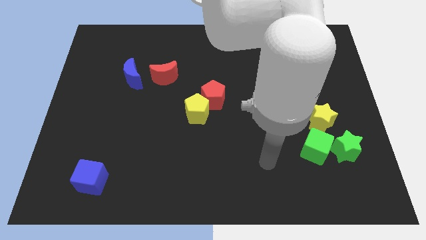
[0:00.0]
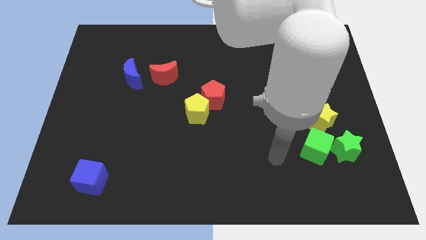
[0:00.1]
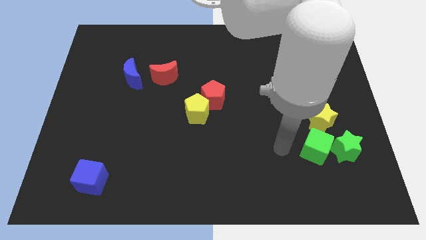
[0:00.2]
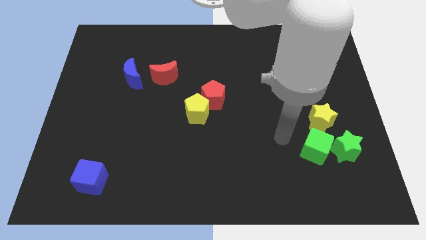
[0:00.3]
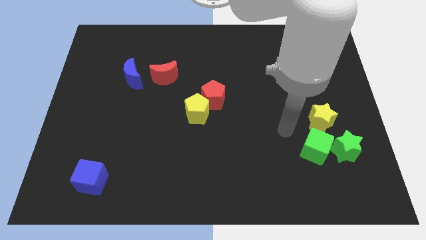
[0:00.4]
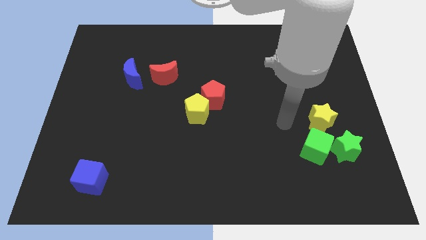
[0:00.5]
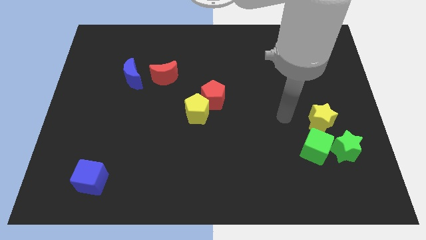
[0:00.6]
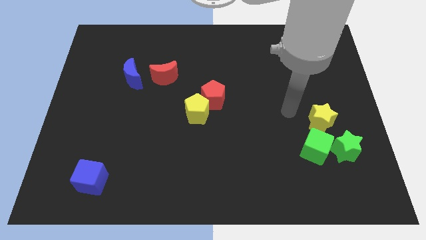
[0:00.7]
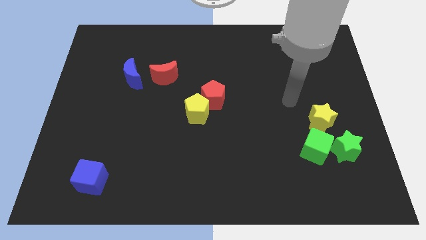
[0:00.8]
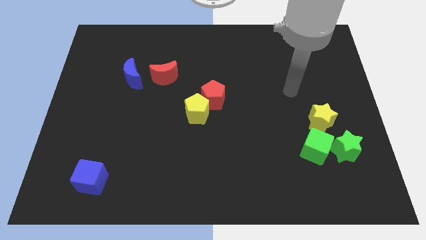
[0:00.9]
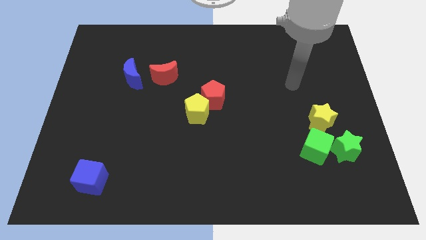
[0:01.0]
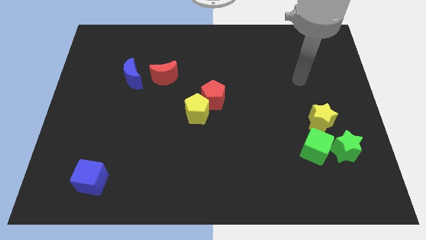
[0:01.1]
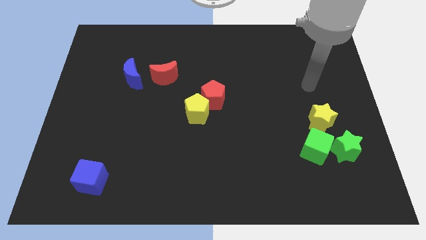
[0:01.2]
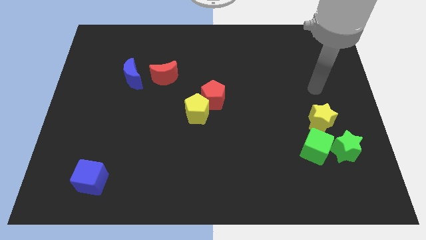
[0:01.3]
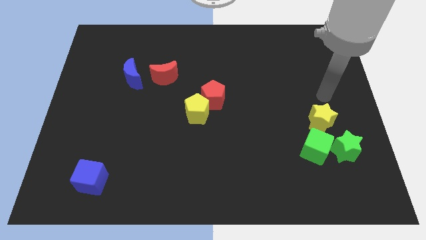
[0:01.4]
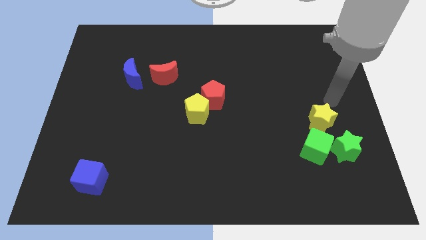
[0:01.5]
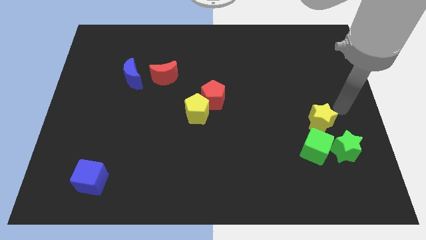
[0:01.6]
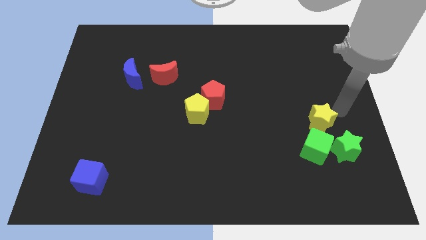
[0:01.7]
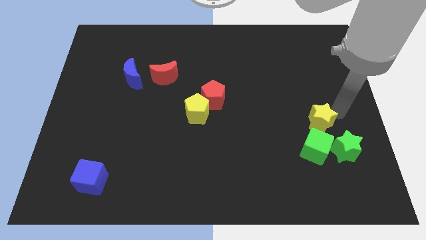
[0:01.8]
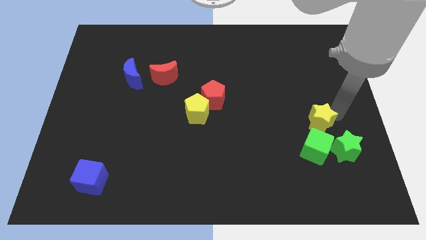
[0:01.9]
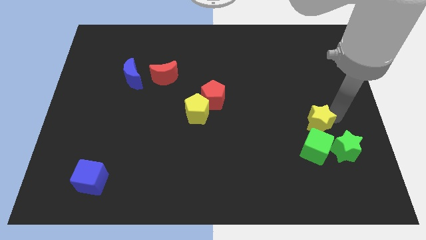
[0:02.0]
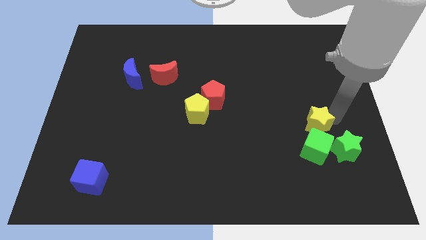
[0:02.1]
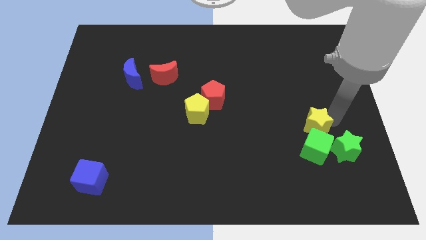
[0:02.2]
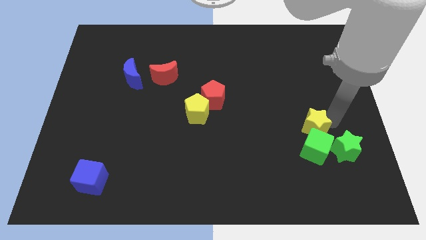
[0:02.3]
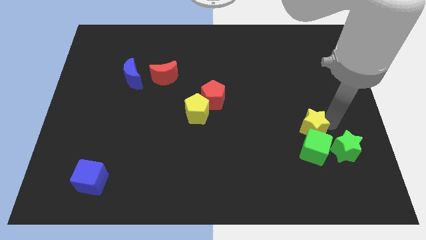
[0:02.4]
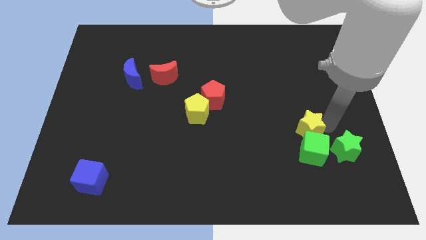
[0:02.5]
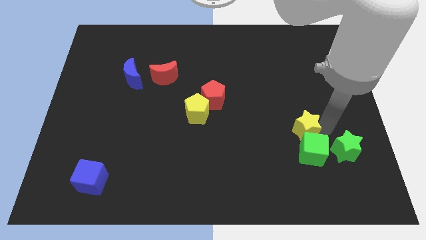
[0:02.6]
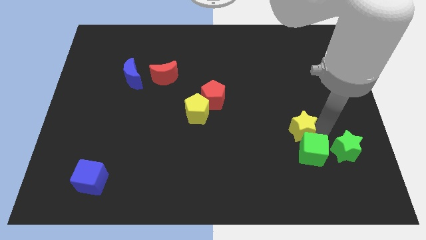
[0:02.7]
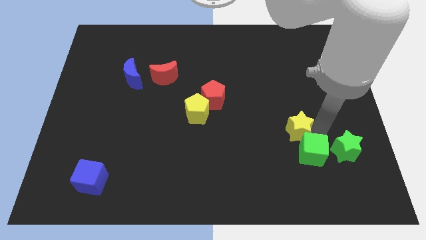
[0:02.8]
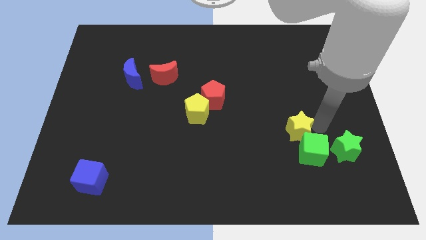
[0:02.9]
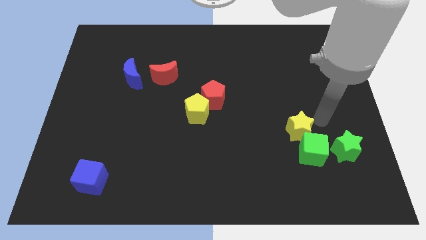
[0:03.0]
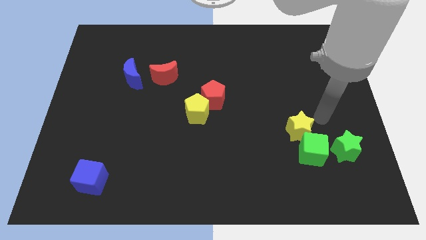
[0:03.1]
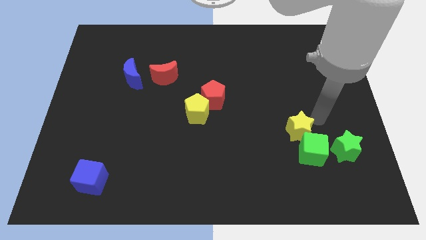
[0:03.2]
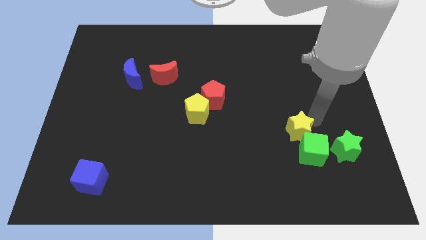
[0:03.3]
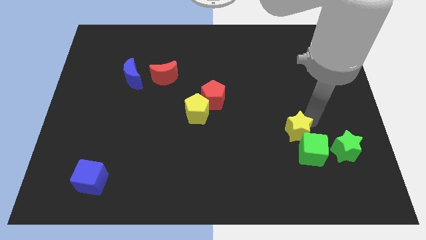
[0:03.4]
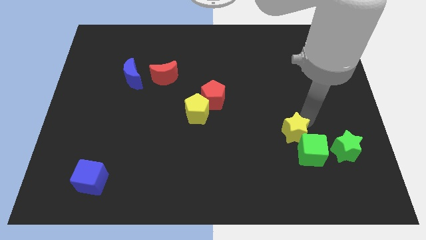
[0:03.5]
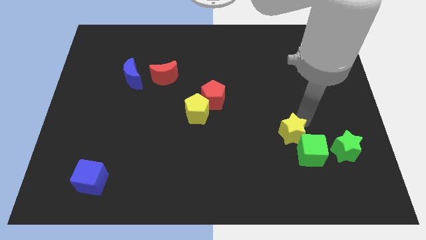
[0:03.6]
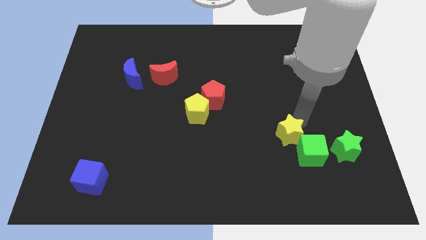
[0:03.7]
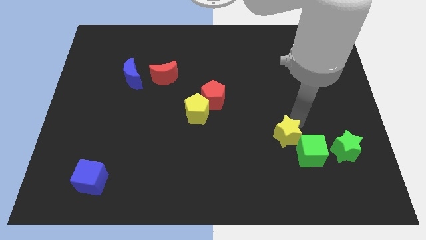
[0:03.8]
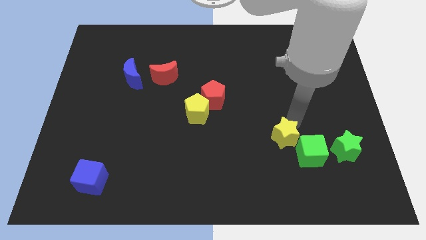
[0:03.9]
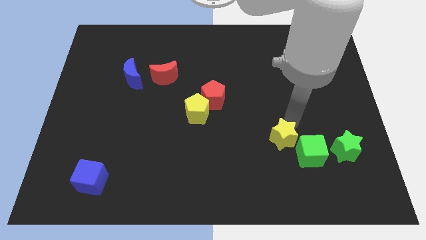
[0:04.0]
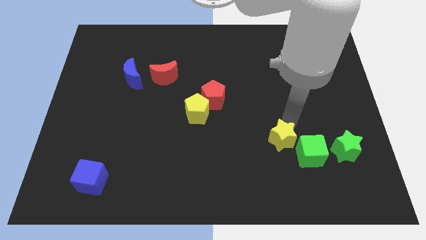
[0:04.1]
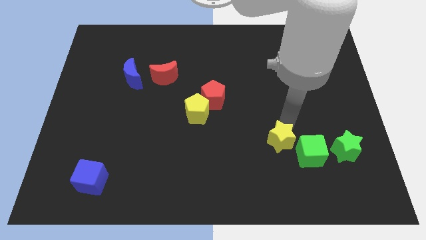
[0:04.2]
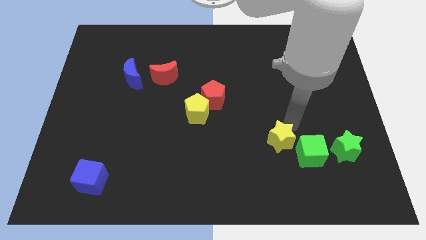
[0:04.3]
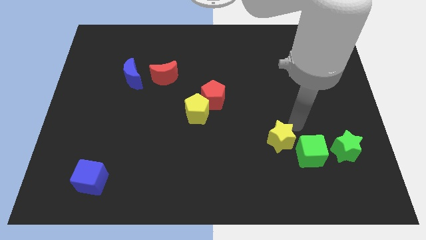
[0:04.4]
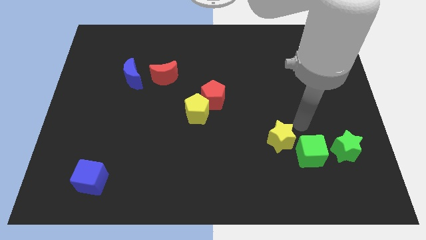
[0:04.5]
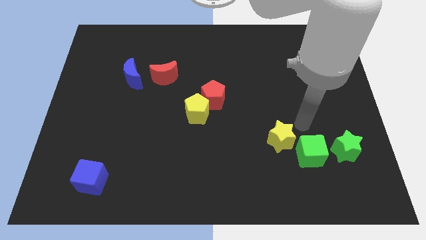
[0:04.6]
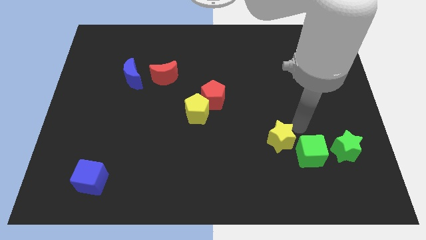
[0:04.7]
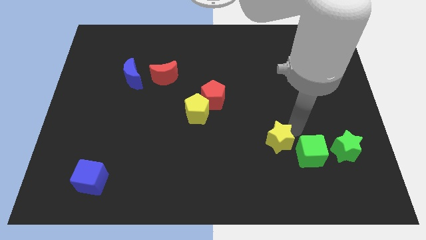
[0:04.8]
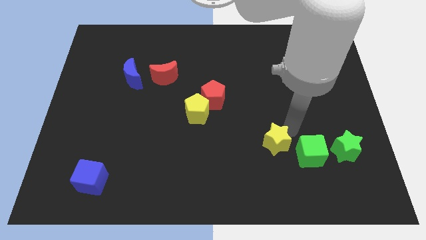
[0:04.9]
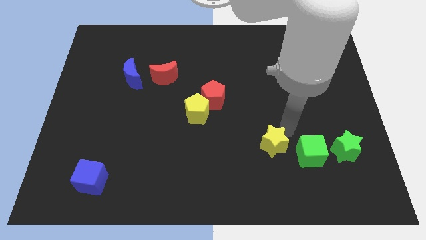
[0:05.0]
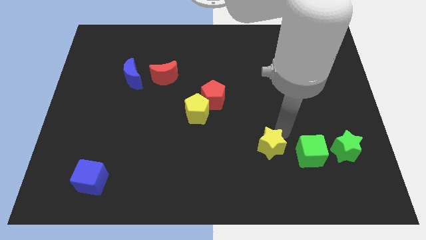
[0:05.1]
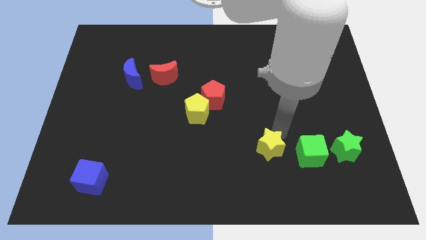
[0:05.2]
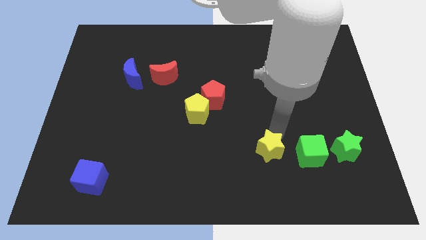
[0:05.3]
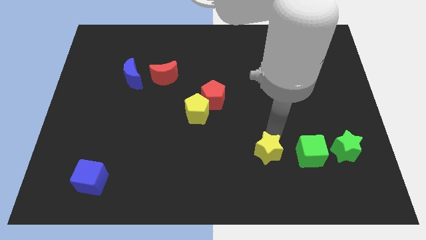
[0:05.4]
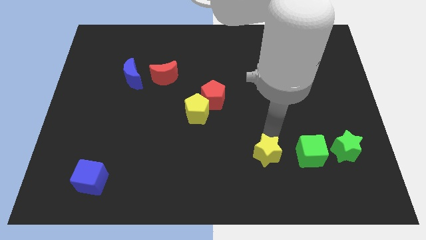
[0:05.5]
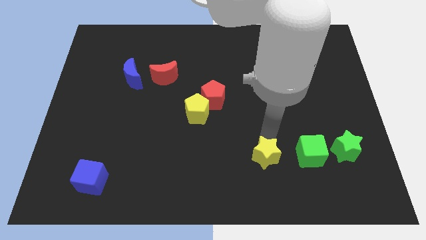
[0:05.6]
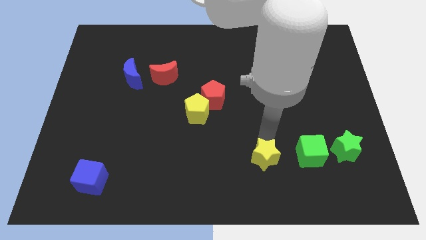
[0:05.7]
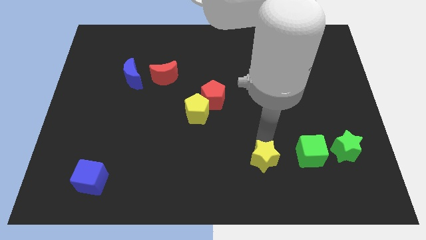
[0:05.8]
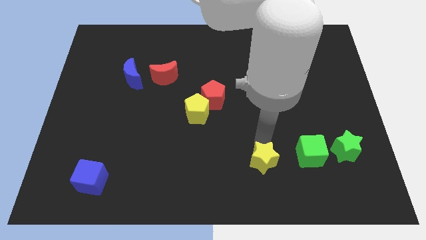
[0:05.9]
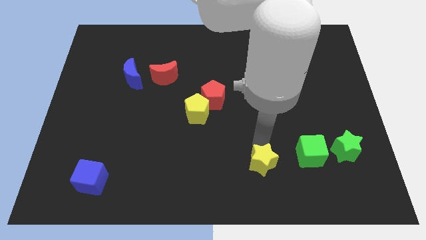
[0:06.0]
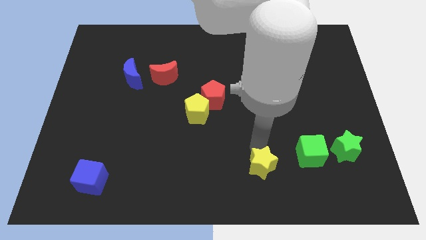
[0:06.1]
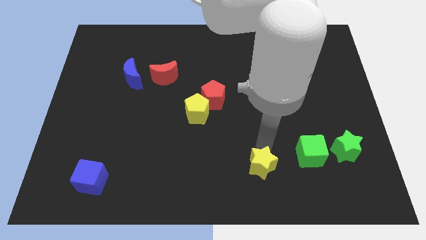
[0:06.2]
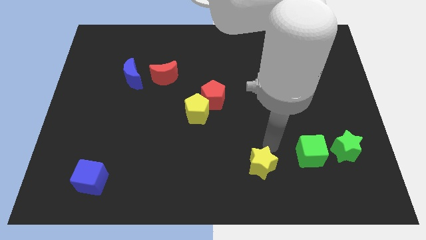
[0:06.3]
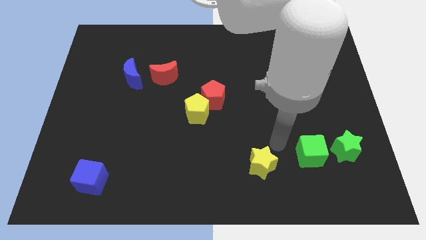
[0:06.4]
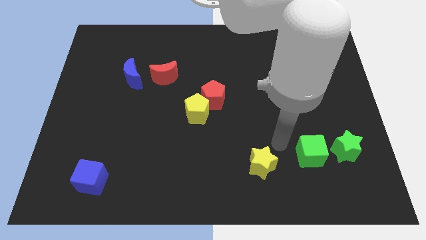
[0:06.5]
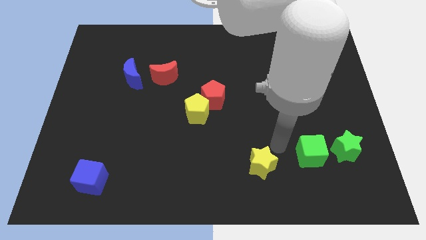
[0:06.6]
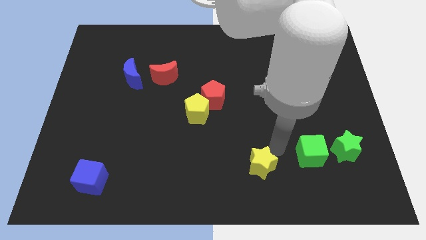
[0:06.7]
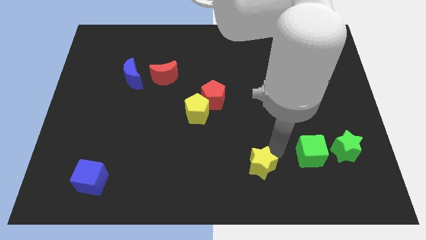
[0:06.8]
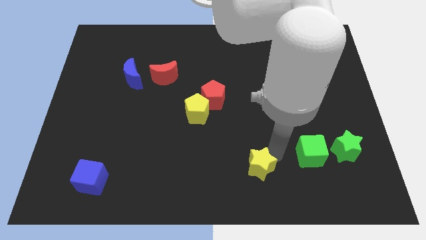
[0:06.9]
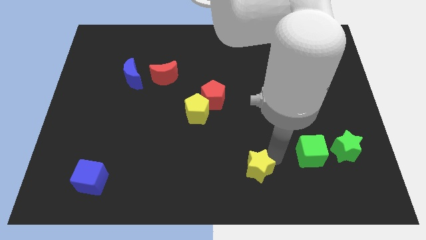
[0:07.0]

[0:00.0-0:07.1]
move the yellow star to the bottom
